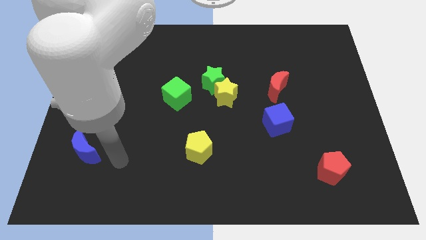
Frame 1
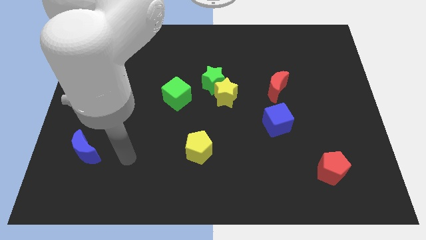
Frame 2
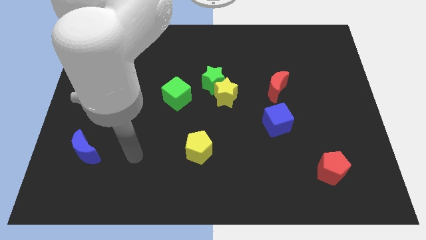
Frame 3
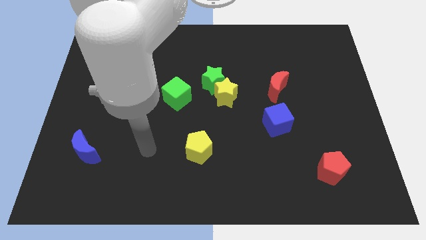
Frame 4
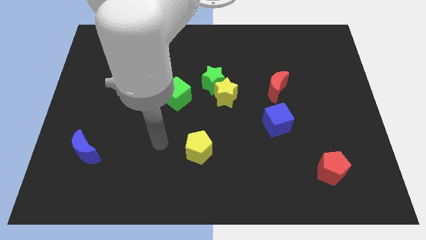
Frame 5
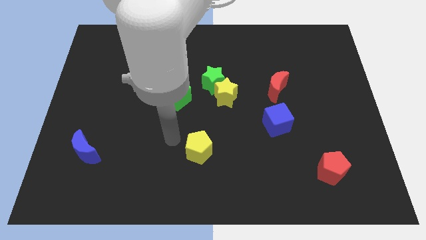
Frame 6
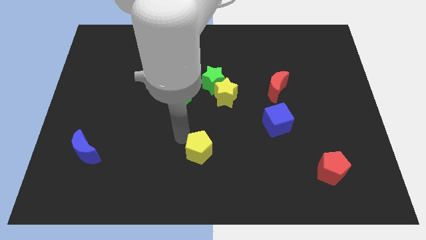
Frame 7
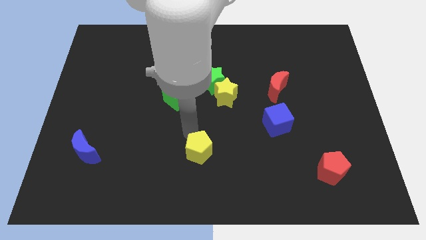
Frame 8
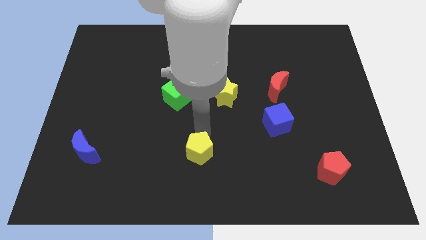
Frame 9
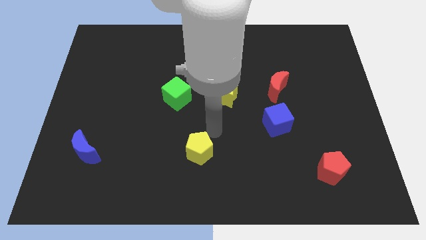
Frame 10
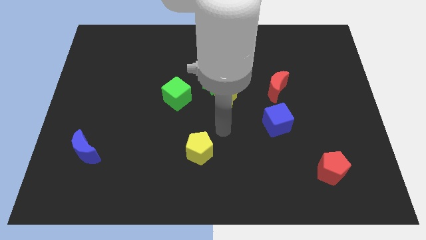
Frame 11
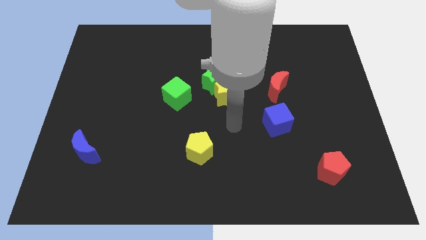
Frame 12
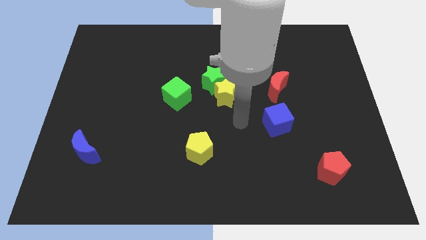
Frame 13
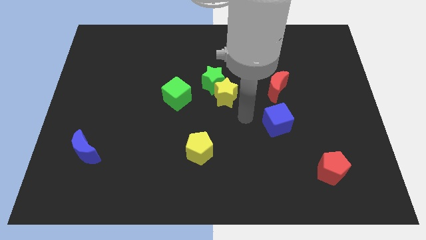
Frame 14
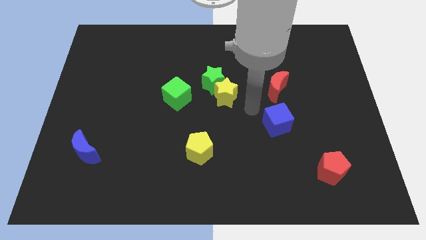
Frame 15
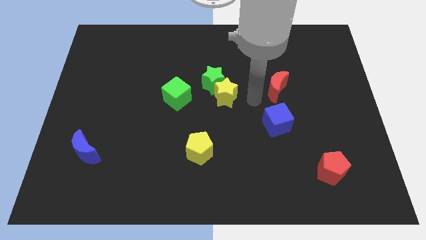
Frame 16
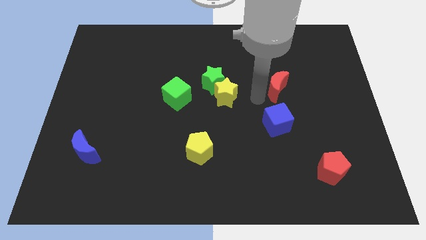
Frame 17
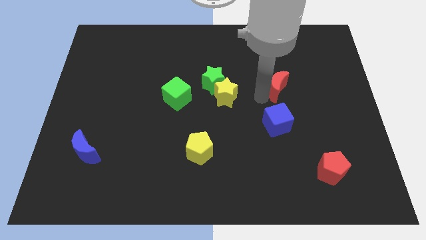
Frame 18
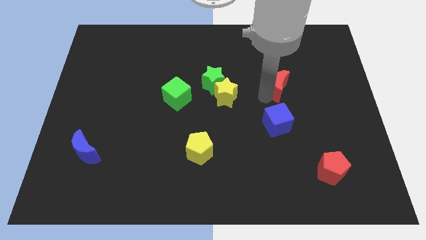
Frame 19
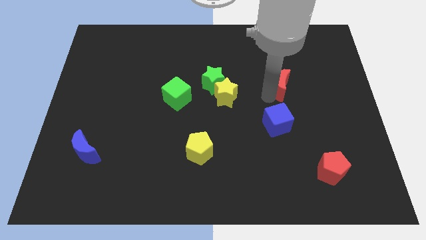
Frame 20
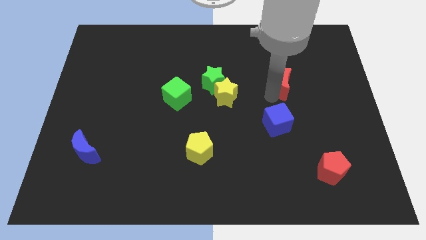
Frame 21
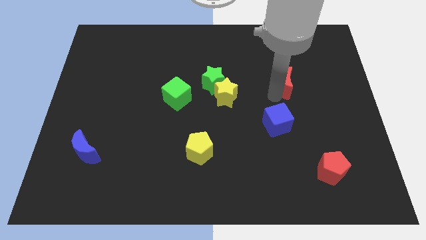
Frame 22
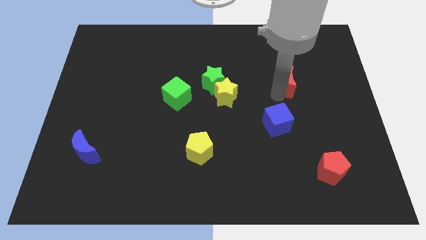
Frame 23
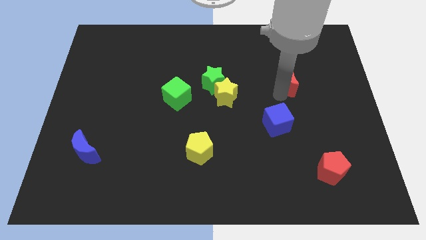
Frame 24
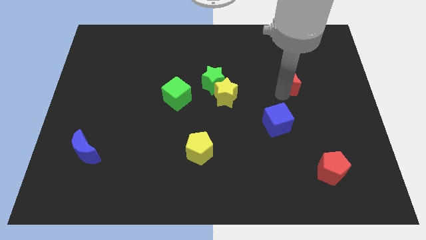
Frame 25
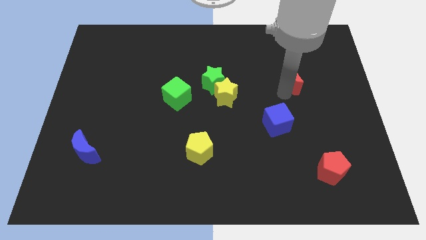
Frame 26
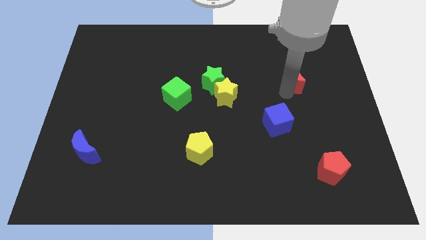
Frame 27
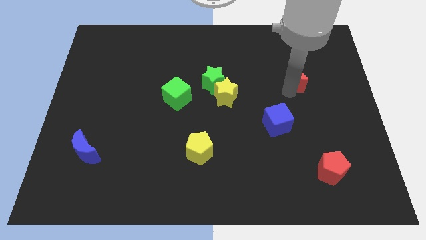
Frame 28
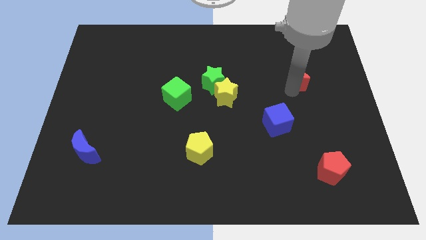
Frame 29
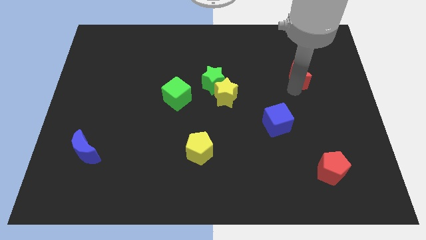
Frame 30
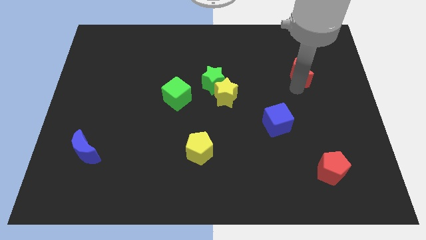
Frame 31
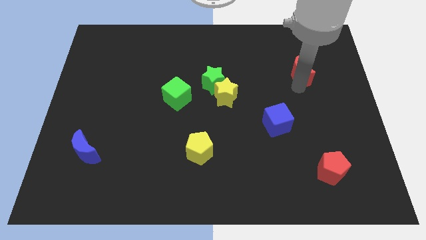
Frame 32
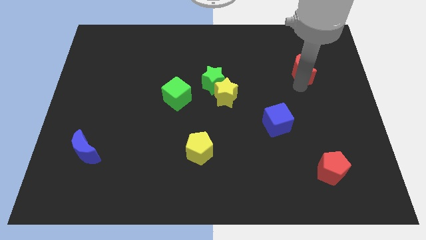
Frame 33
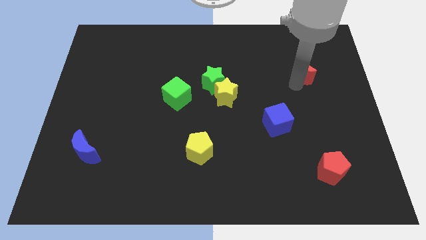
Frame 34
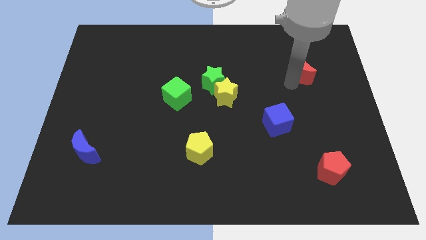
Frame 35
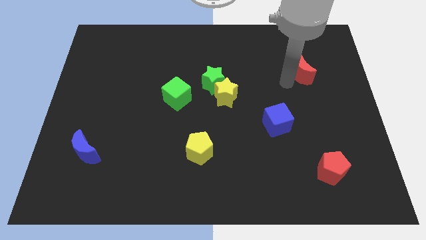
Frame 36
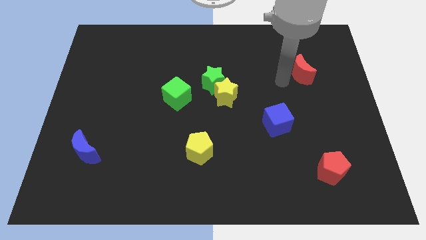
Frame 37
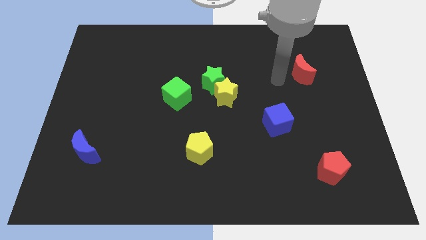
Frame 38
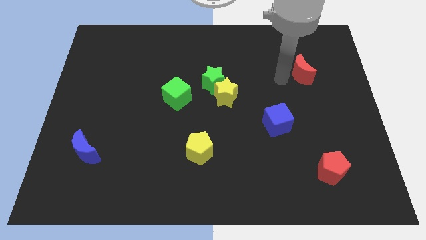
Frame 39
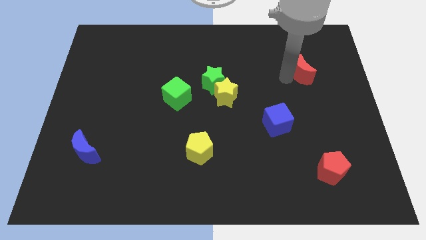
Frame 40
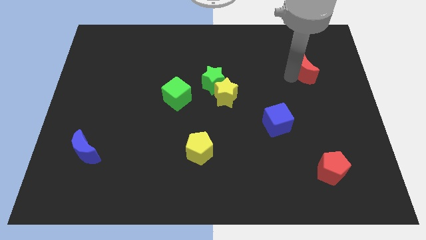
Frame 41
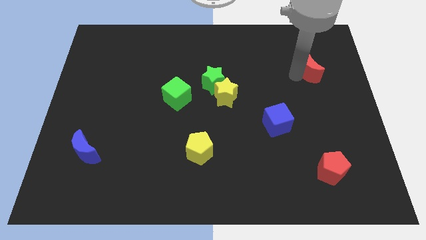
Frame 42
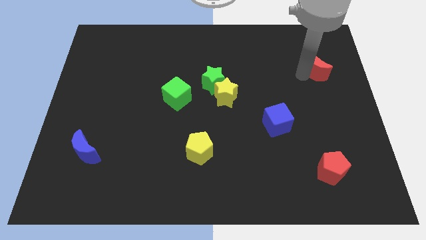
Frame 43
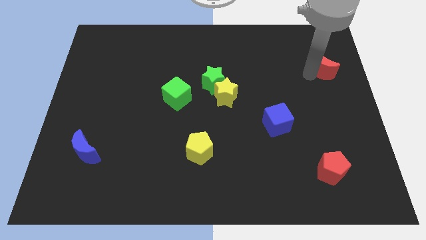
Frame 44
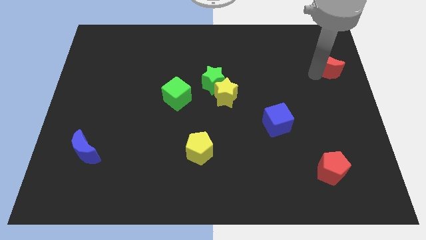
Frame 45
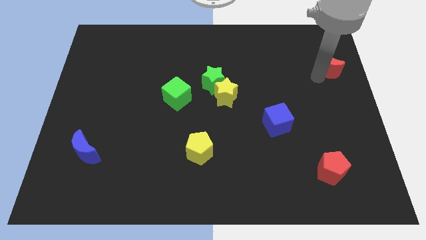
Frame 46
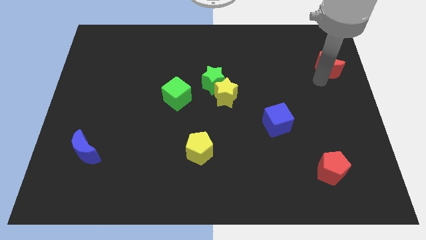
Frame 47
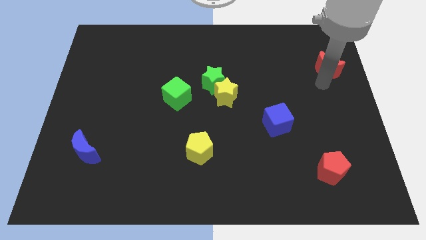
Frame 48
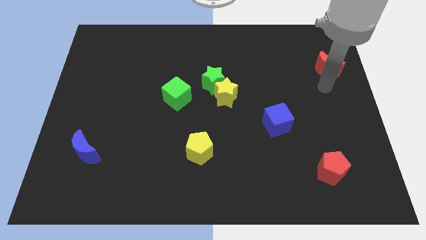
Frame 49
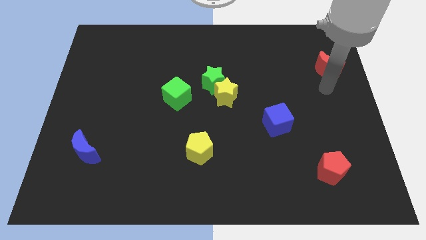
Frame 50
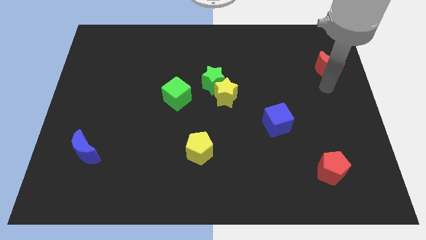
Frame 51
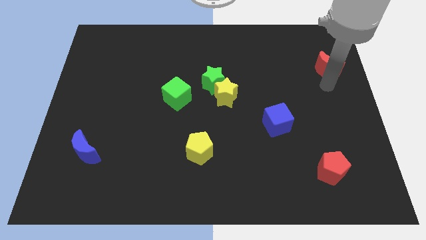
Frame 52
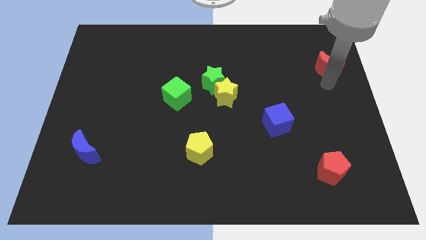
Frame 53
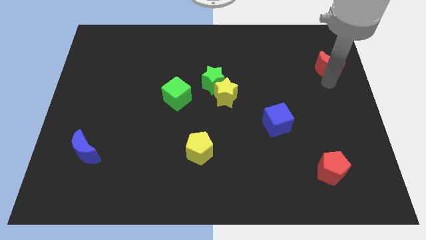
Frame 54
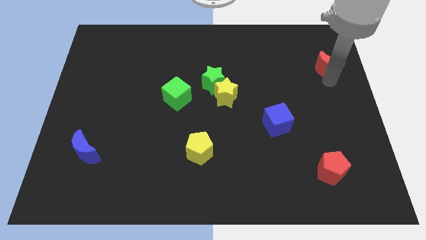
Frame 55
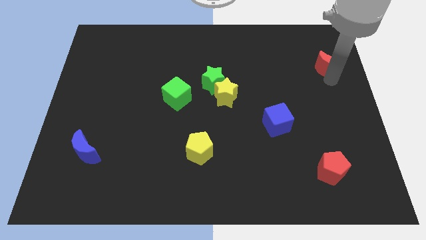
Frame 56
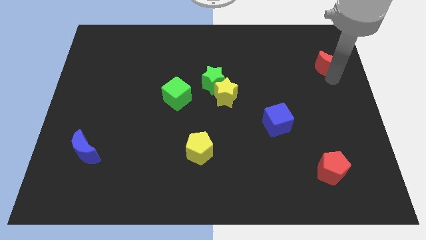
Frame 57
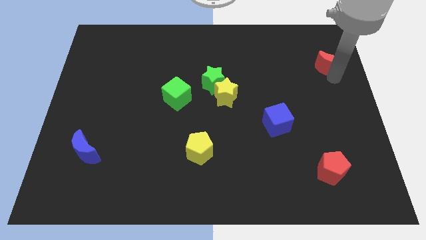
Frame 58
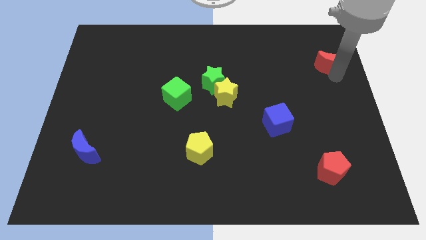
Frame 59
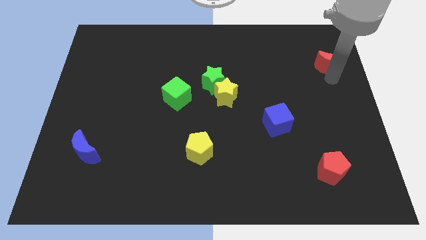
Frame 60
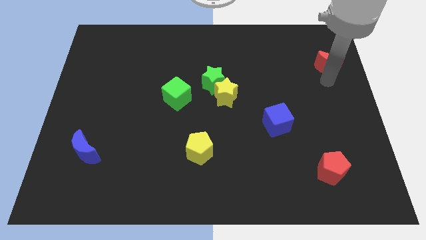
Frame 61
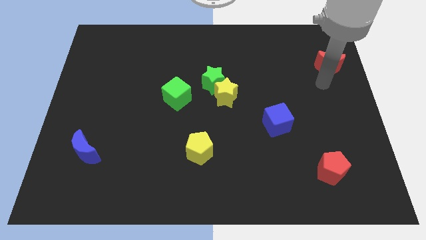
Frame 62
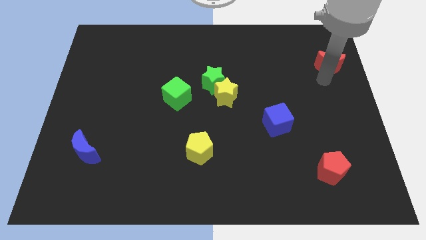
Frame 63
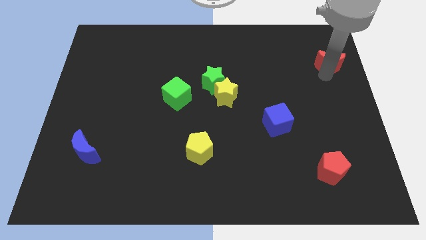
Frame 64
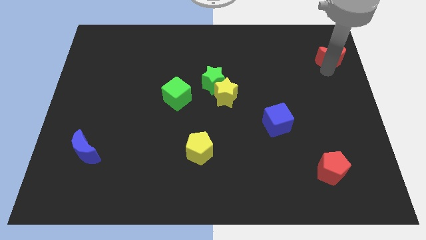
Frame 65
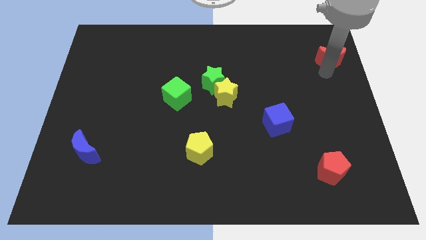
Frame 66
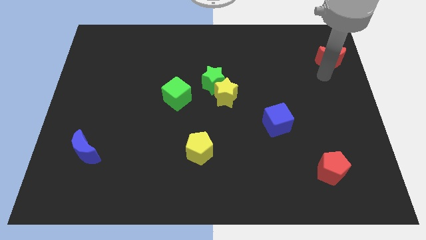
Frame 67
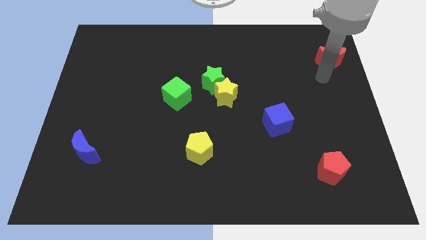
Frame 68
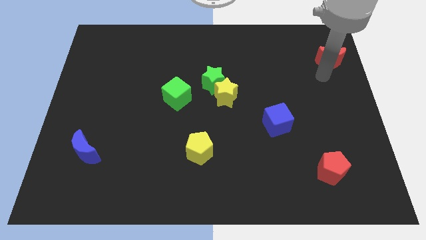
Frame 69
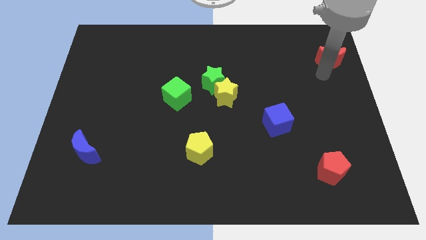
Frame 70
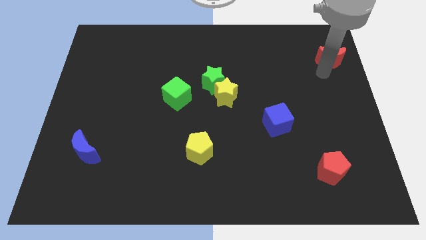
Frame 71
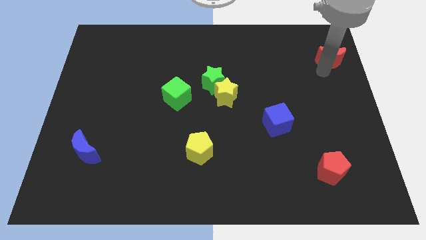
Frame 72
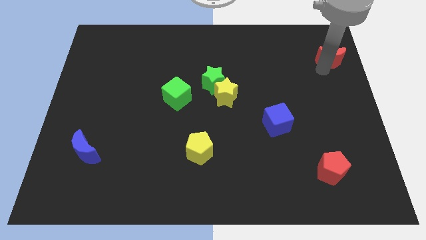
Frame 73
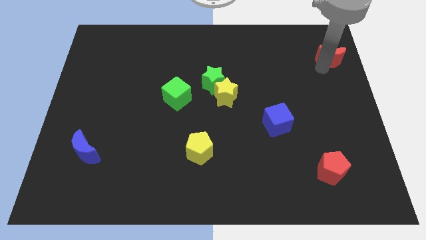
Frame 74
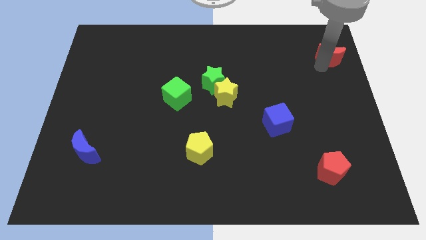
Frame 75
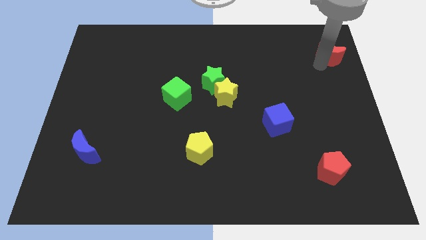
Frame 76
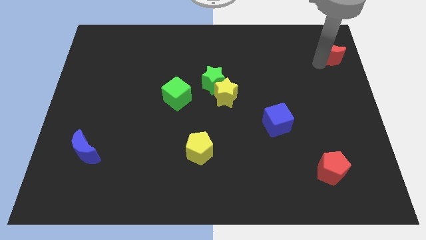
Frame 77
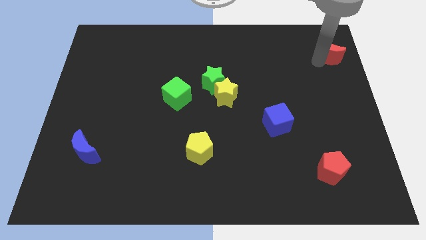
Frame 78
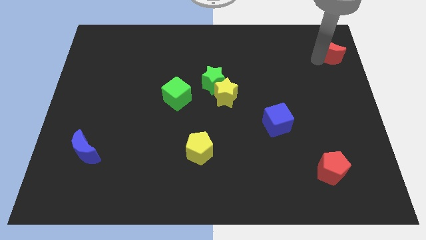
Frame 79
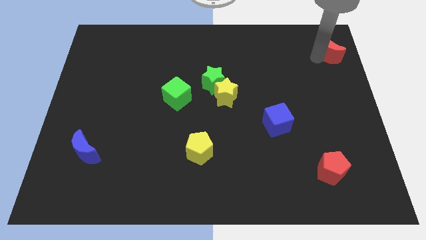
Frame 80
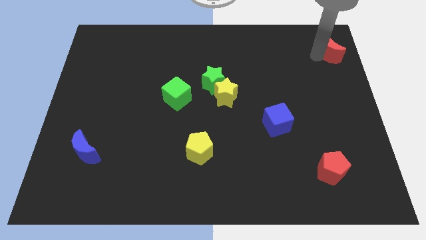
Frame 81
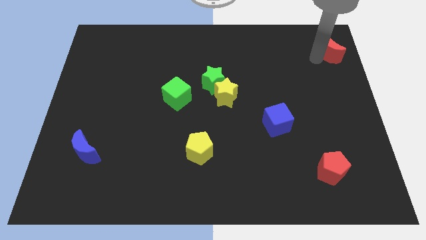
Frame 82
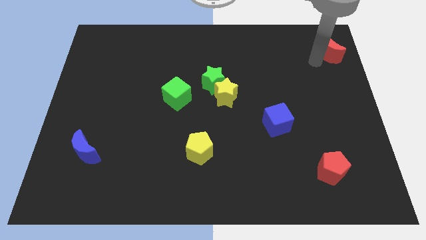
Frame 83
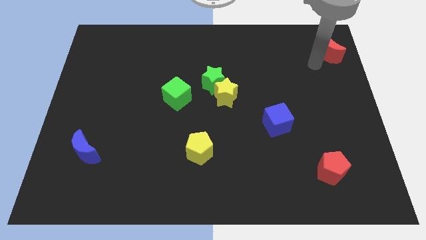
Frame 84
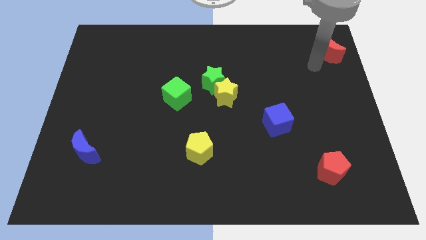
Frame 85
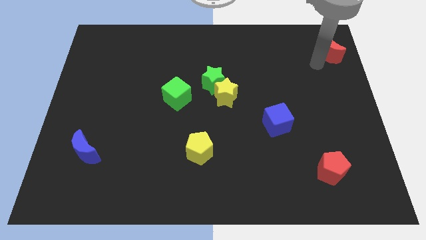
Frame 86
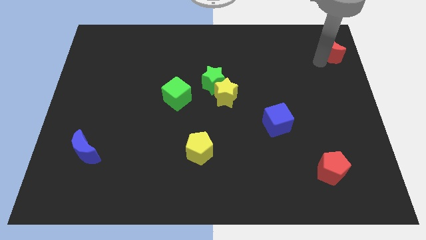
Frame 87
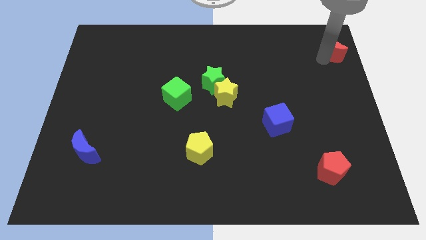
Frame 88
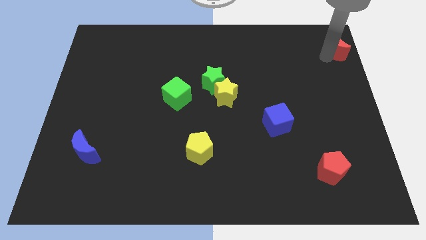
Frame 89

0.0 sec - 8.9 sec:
move the red moon to the top right of the board
